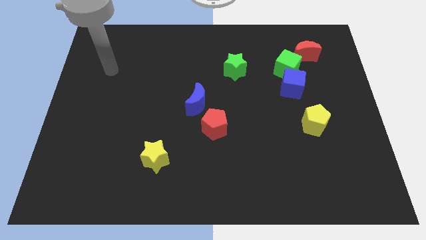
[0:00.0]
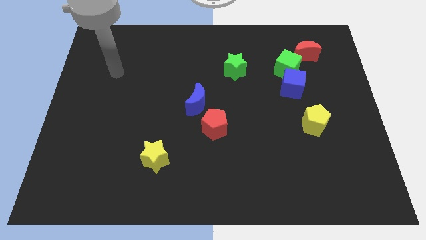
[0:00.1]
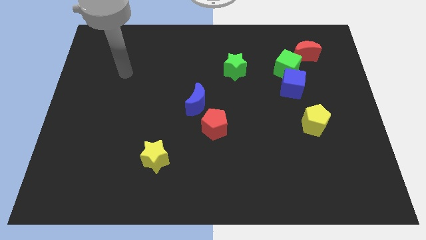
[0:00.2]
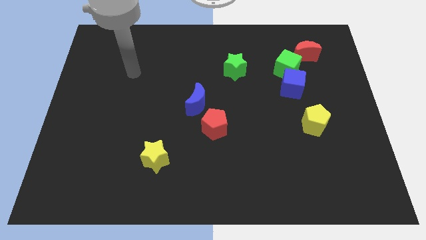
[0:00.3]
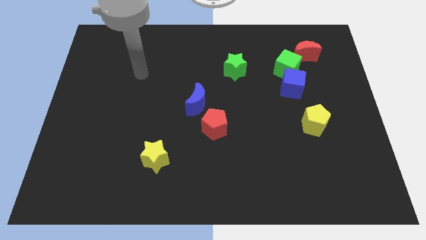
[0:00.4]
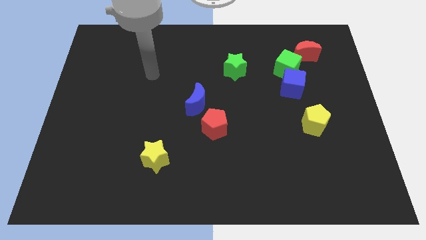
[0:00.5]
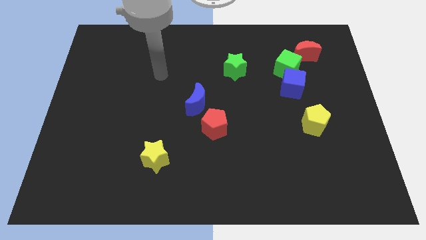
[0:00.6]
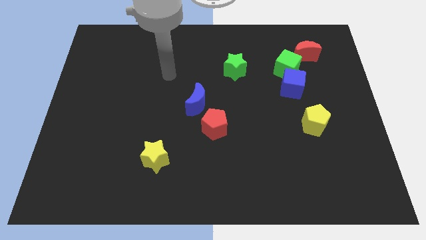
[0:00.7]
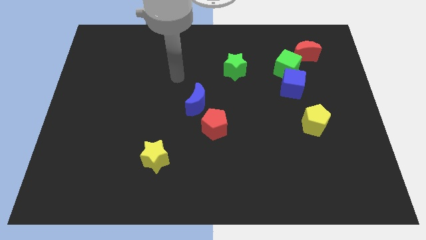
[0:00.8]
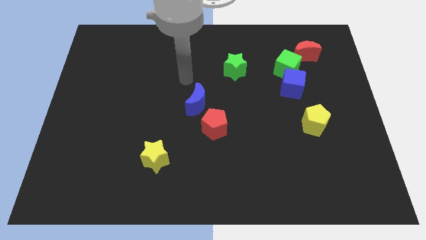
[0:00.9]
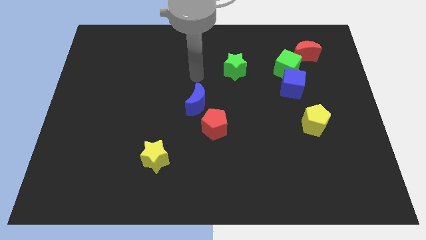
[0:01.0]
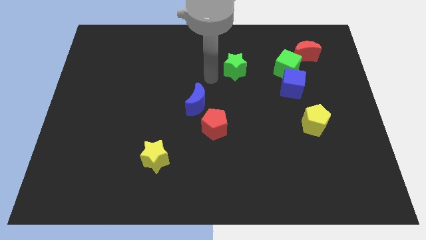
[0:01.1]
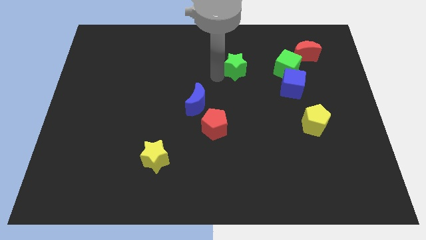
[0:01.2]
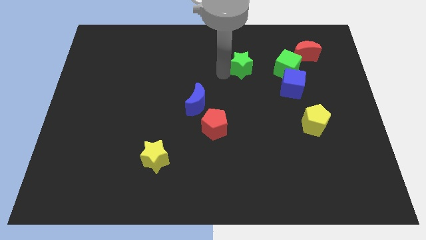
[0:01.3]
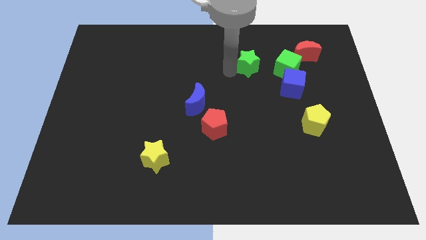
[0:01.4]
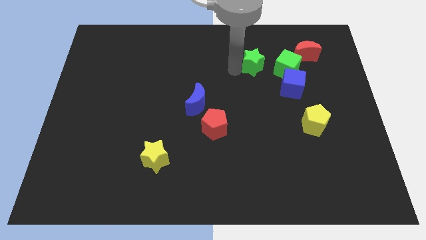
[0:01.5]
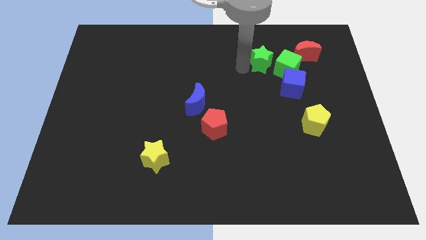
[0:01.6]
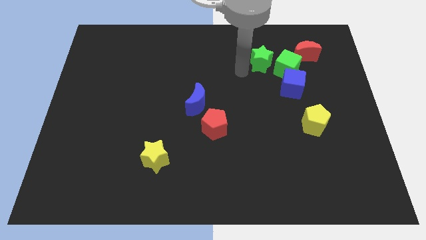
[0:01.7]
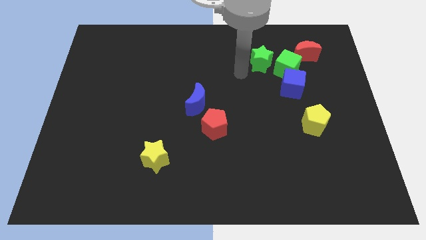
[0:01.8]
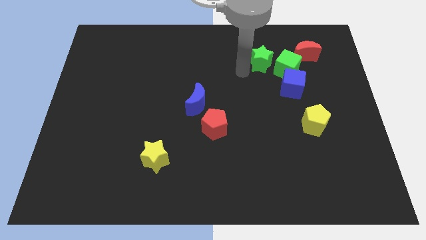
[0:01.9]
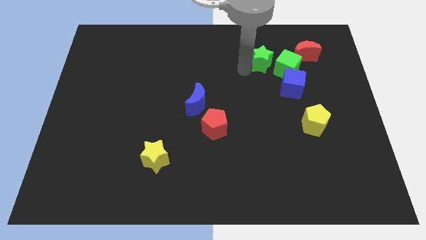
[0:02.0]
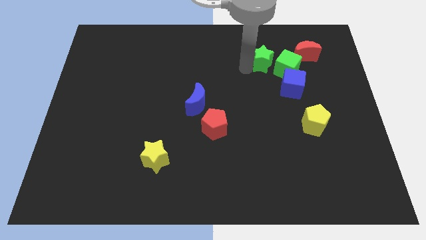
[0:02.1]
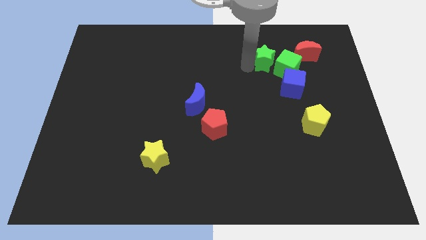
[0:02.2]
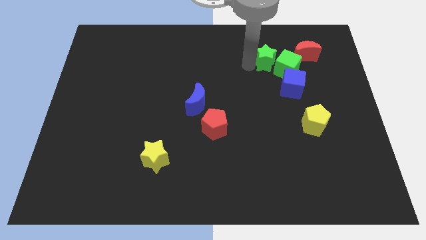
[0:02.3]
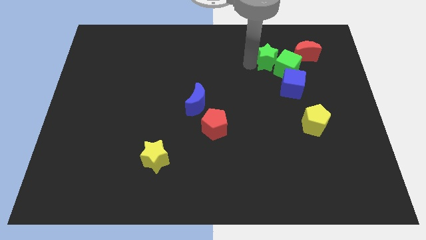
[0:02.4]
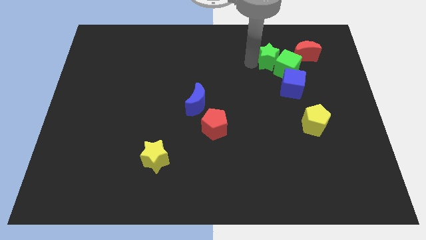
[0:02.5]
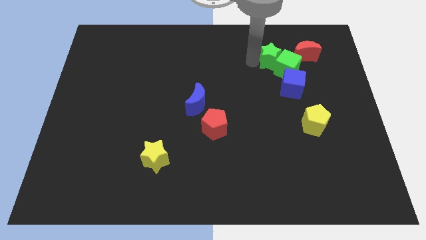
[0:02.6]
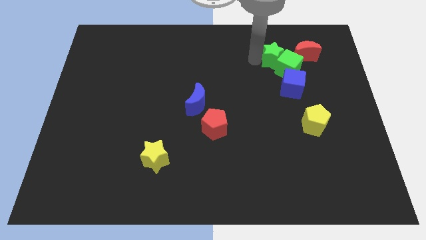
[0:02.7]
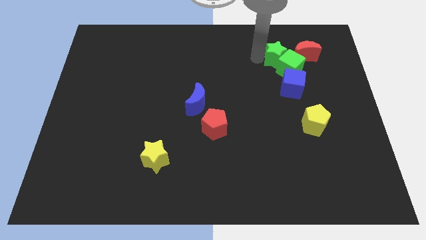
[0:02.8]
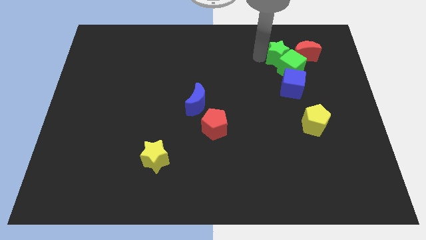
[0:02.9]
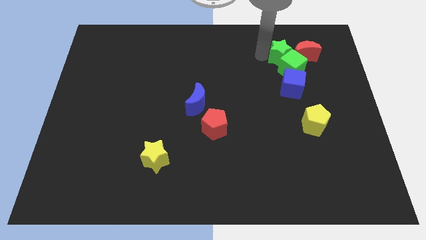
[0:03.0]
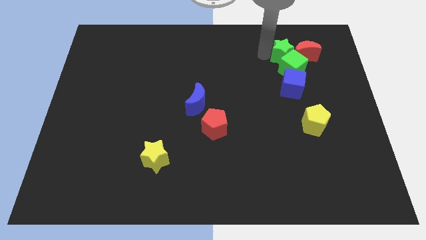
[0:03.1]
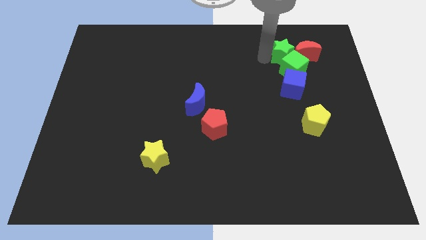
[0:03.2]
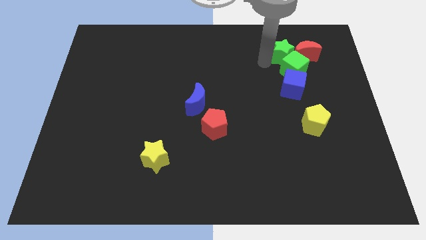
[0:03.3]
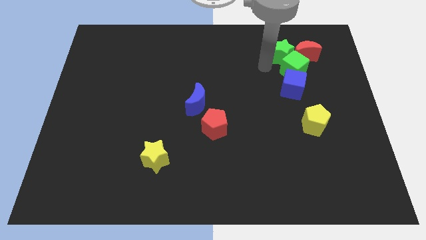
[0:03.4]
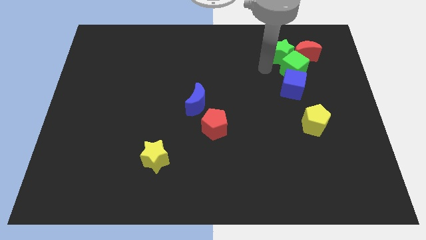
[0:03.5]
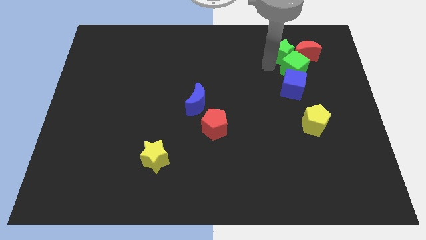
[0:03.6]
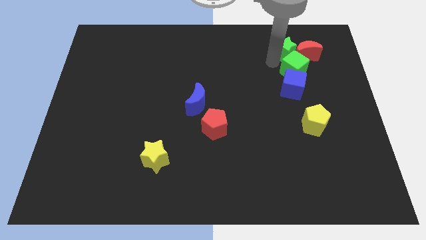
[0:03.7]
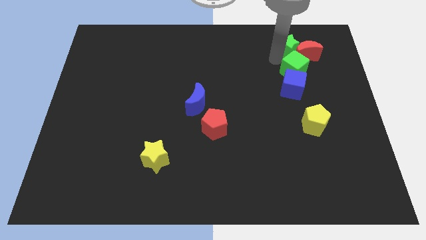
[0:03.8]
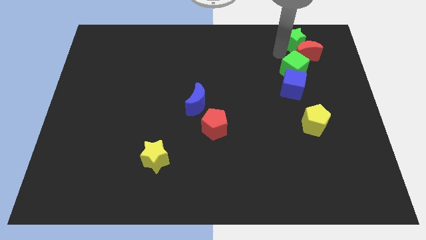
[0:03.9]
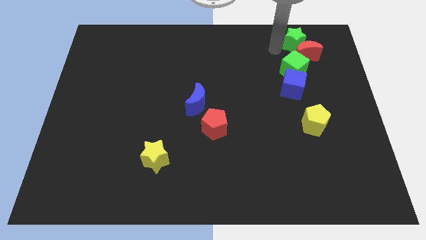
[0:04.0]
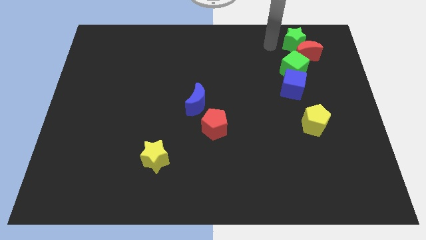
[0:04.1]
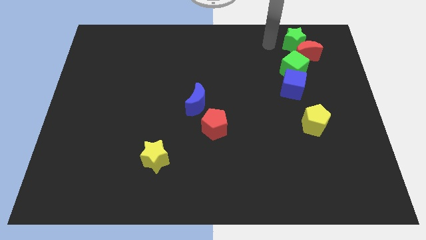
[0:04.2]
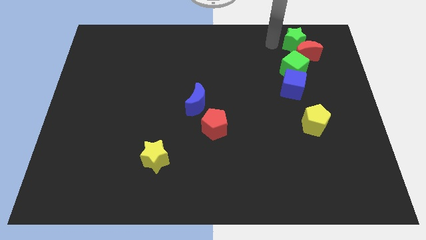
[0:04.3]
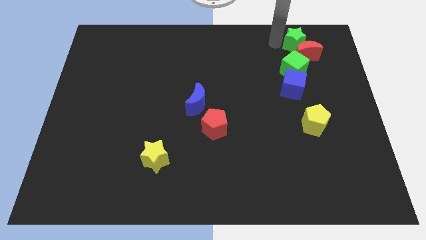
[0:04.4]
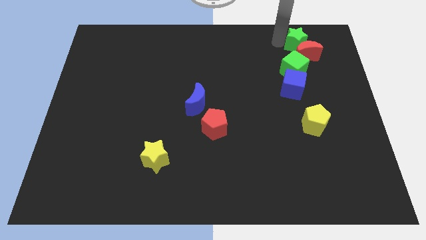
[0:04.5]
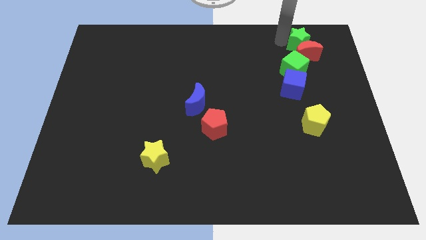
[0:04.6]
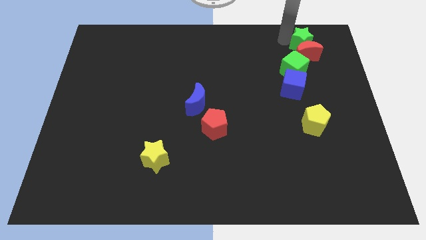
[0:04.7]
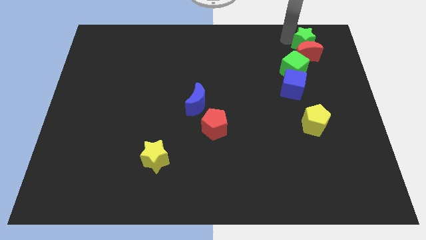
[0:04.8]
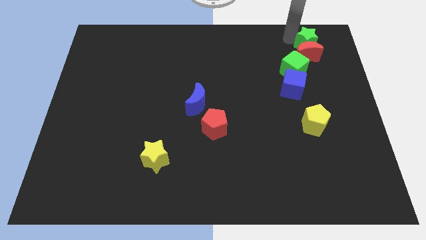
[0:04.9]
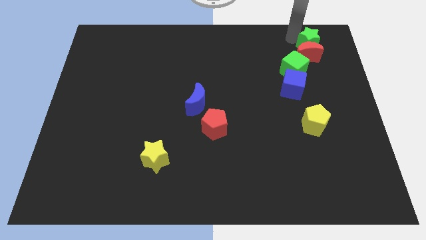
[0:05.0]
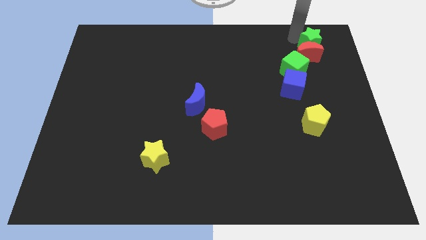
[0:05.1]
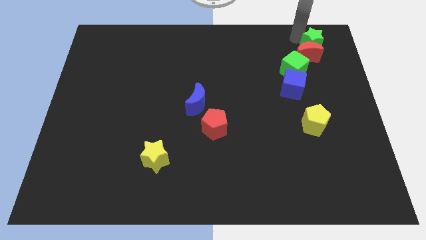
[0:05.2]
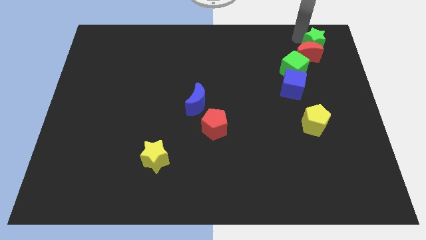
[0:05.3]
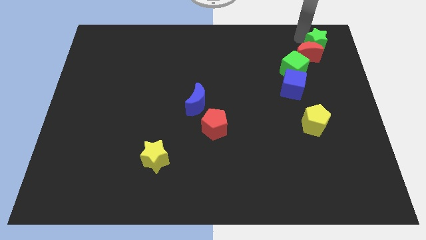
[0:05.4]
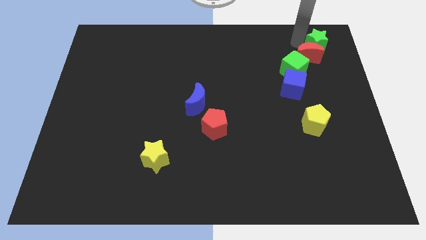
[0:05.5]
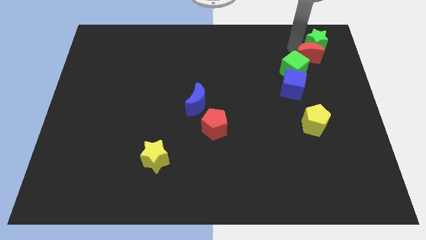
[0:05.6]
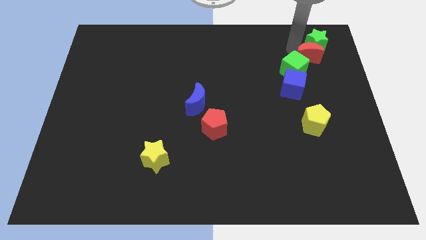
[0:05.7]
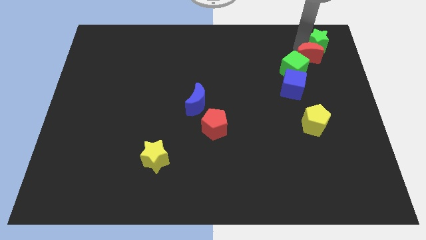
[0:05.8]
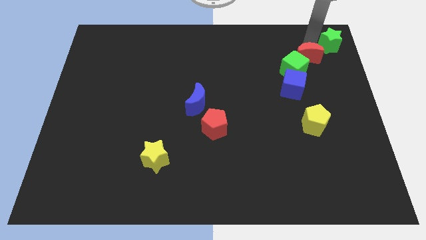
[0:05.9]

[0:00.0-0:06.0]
move the green star to the top right
